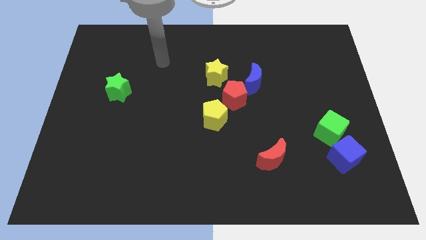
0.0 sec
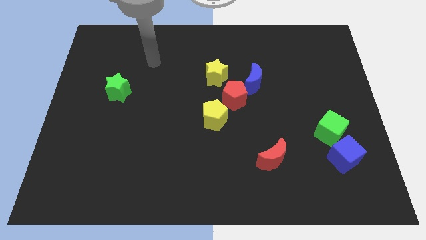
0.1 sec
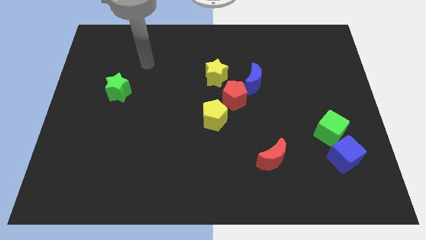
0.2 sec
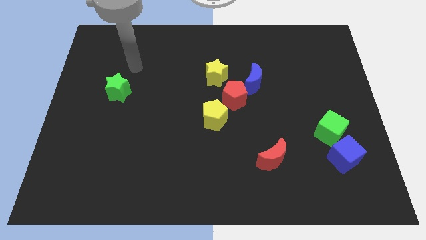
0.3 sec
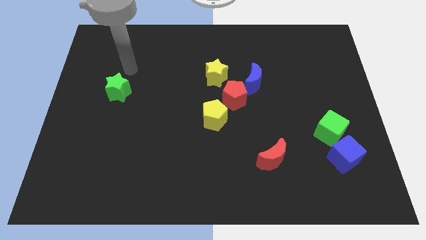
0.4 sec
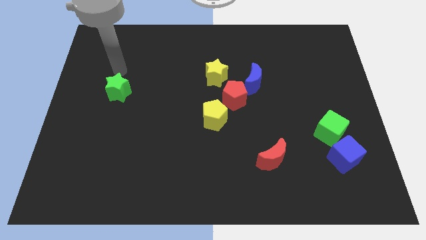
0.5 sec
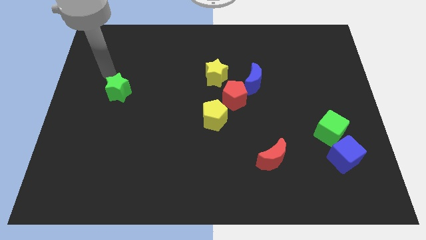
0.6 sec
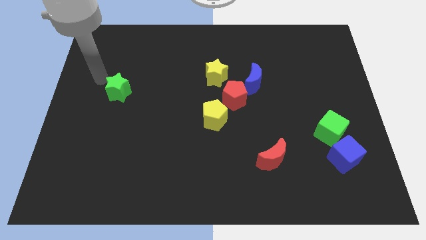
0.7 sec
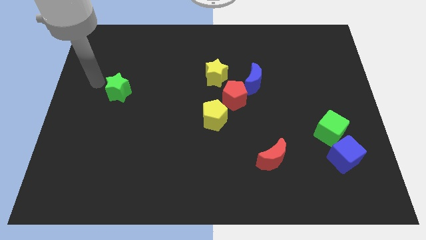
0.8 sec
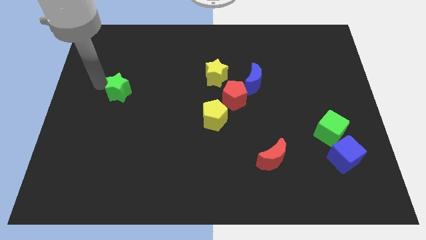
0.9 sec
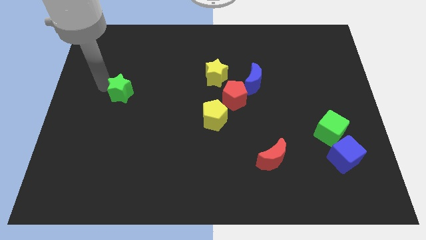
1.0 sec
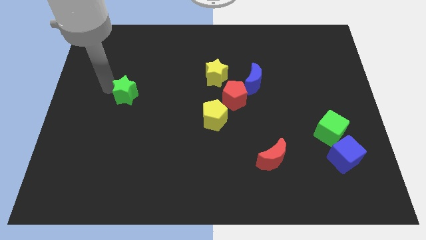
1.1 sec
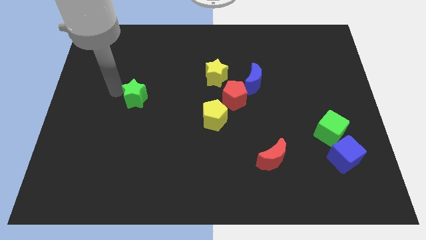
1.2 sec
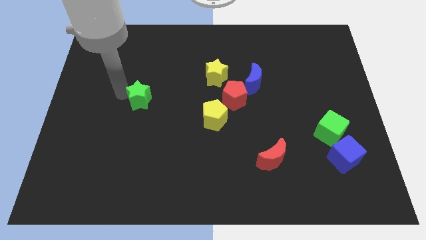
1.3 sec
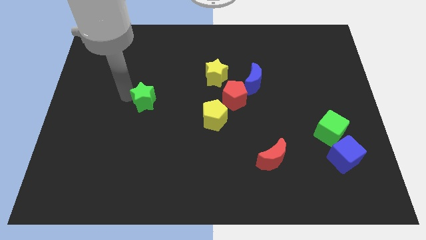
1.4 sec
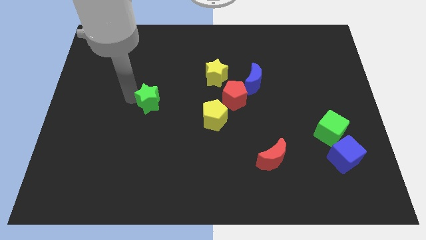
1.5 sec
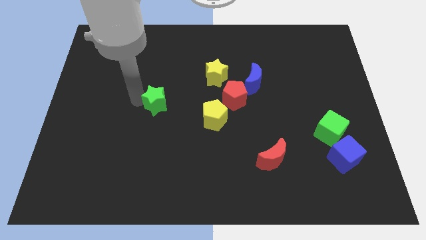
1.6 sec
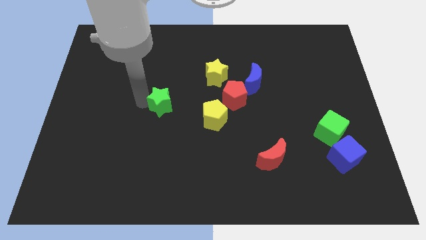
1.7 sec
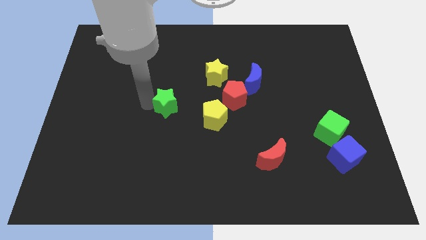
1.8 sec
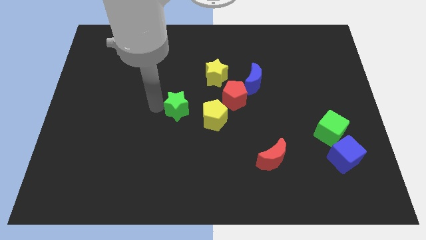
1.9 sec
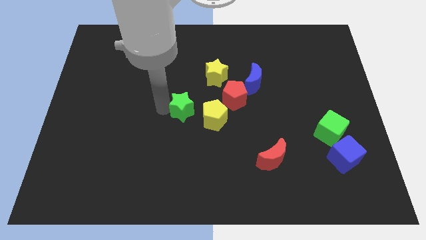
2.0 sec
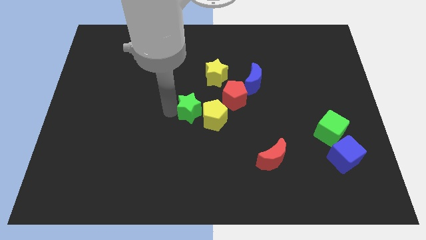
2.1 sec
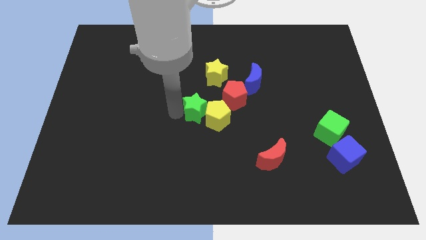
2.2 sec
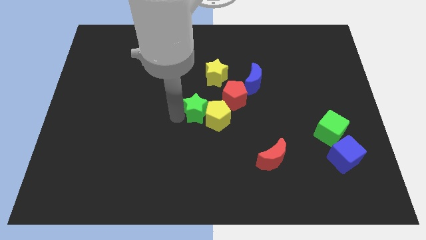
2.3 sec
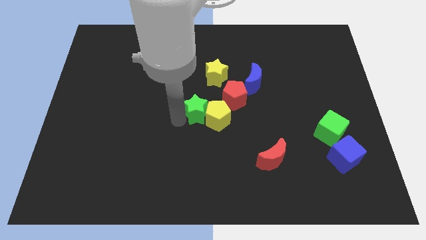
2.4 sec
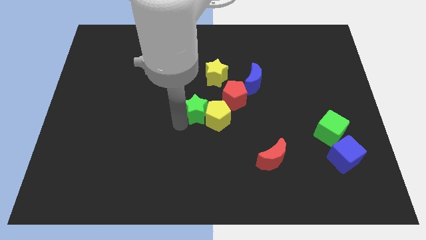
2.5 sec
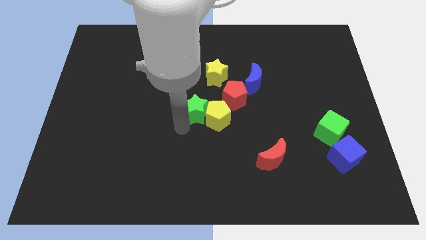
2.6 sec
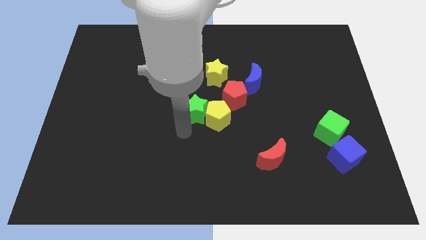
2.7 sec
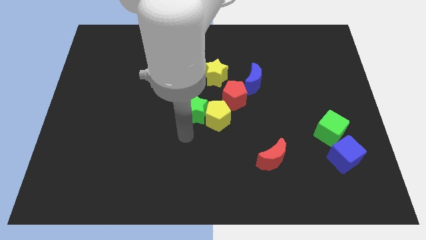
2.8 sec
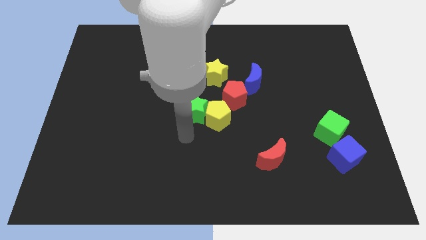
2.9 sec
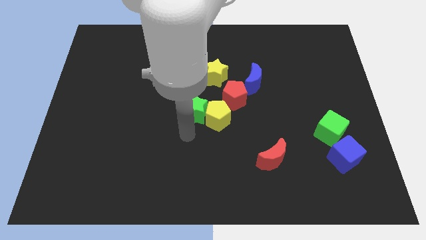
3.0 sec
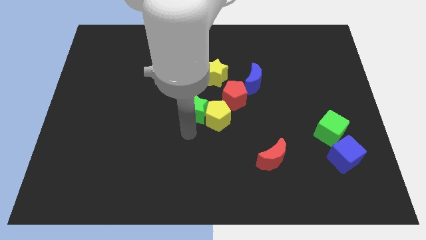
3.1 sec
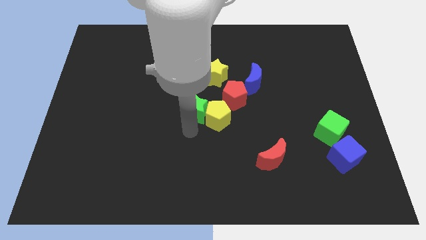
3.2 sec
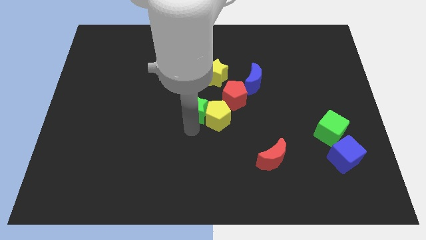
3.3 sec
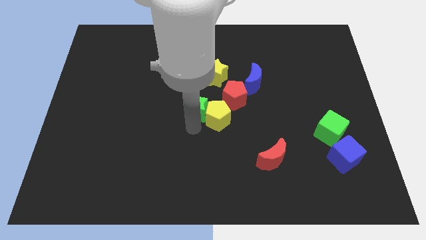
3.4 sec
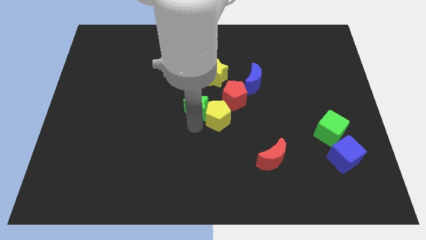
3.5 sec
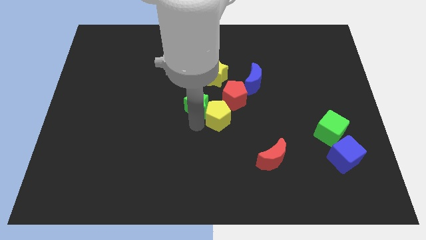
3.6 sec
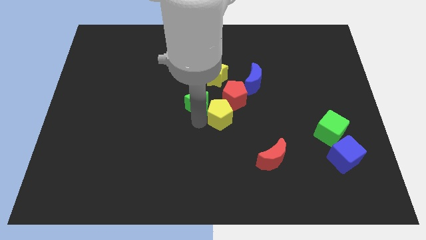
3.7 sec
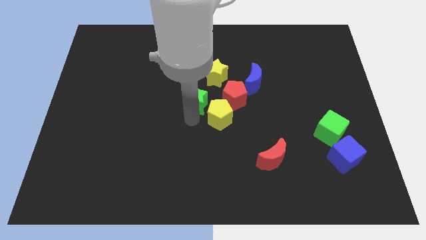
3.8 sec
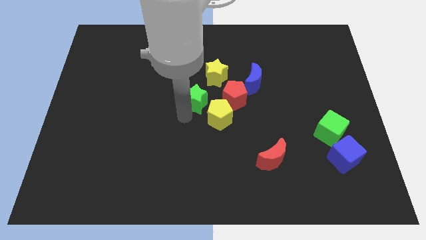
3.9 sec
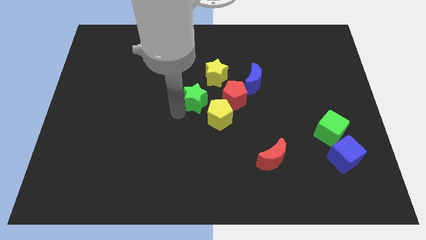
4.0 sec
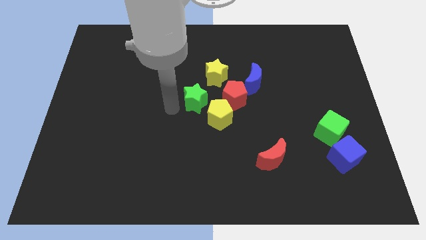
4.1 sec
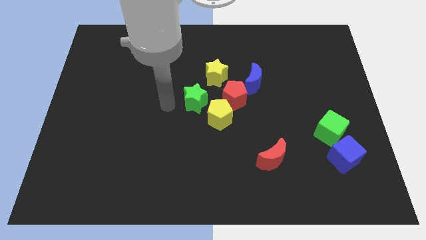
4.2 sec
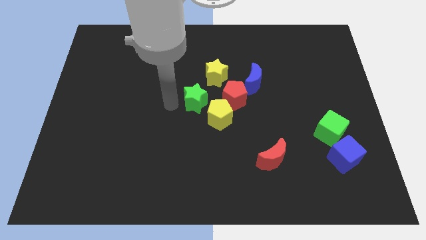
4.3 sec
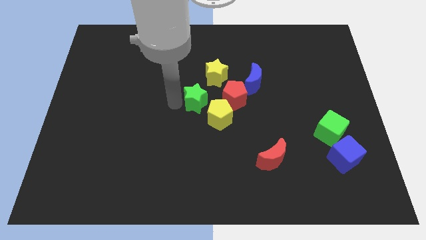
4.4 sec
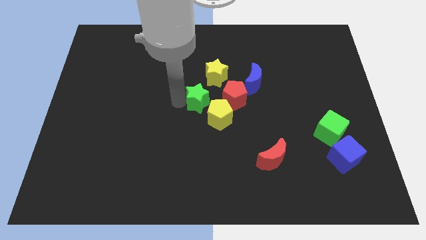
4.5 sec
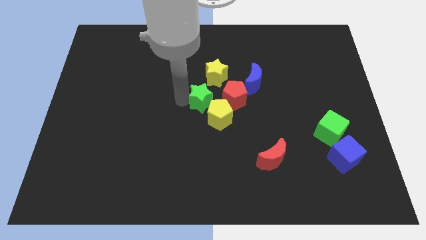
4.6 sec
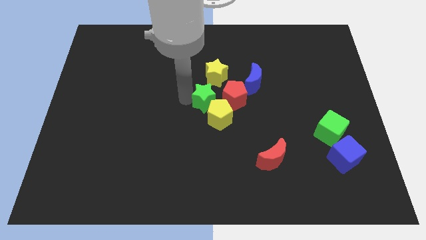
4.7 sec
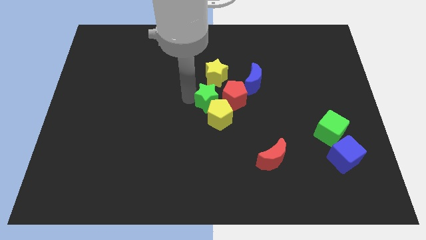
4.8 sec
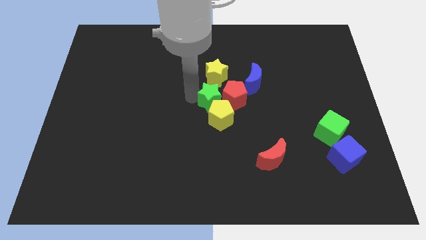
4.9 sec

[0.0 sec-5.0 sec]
put the green star next to the red pentagon

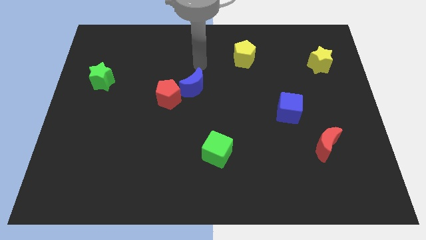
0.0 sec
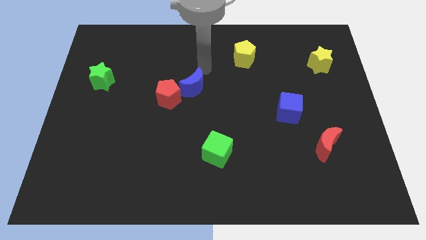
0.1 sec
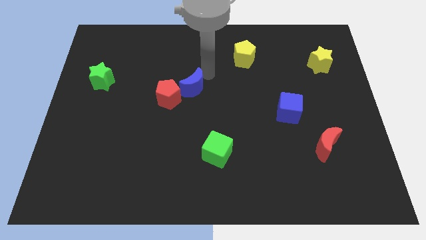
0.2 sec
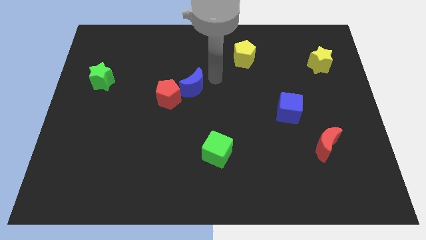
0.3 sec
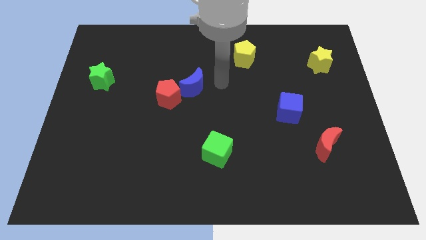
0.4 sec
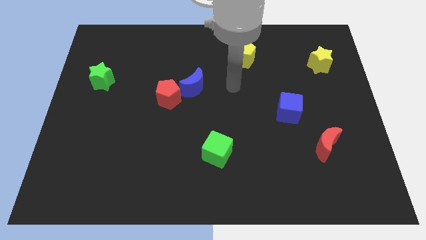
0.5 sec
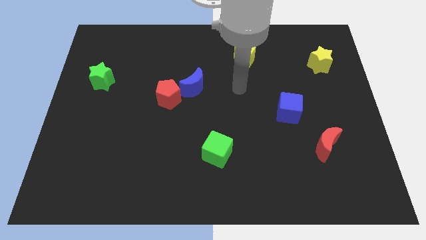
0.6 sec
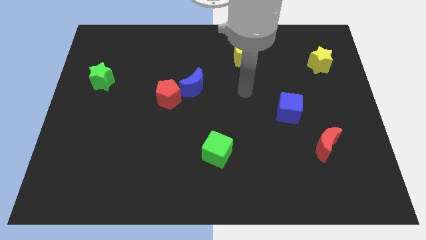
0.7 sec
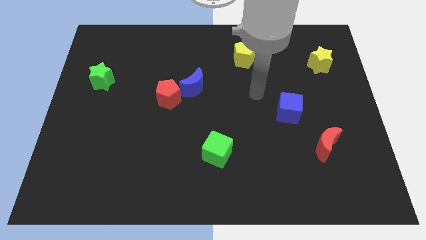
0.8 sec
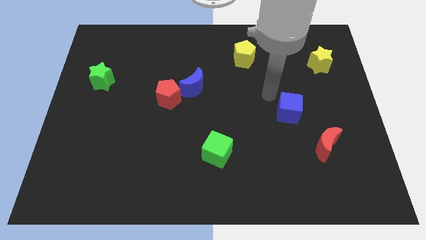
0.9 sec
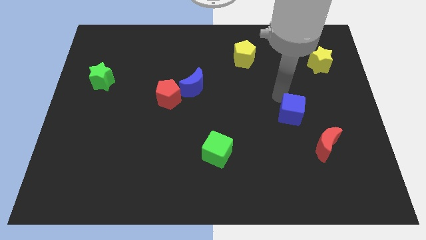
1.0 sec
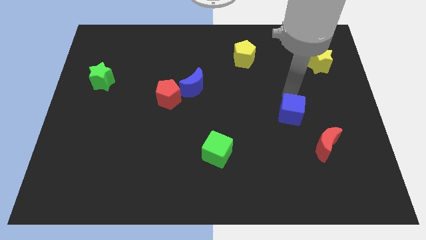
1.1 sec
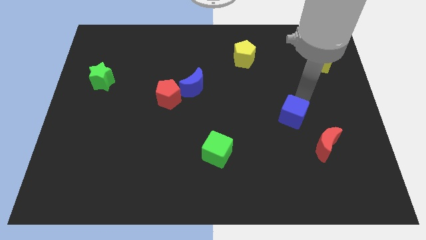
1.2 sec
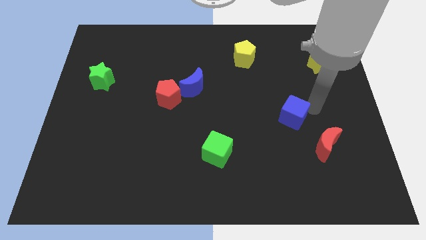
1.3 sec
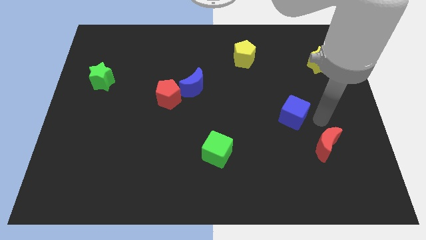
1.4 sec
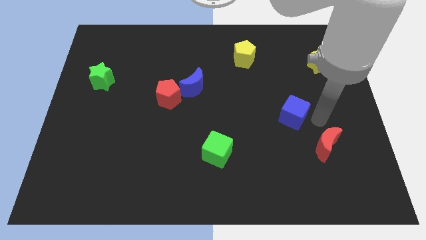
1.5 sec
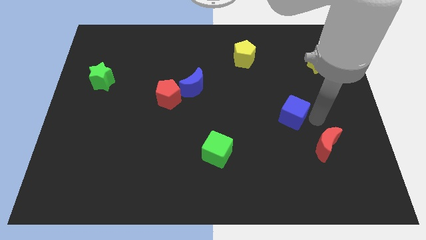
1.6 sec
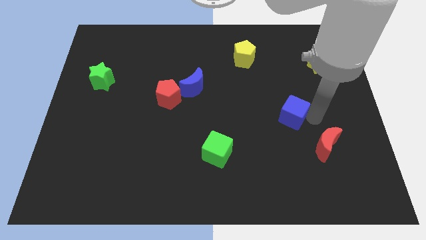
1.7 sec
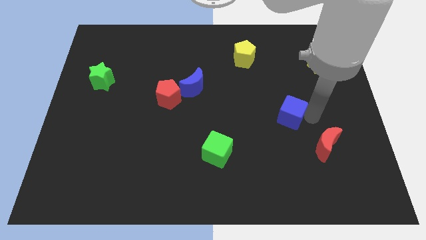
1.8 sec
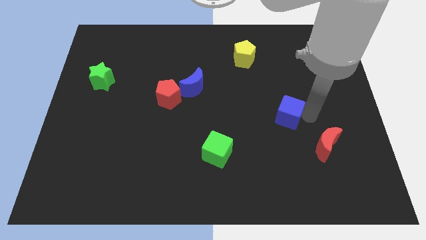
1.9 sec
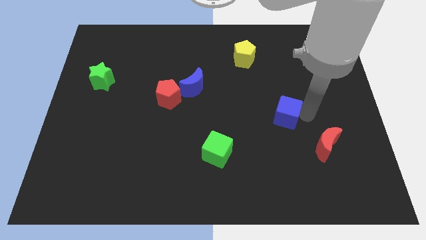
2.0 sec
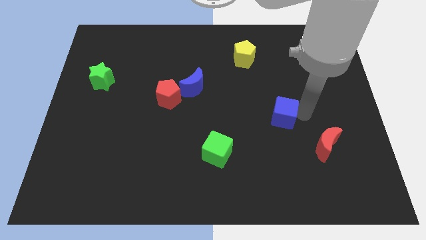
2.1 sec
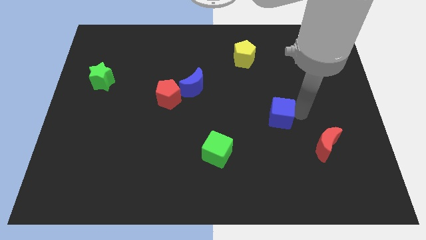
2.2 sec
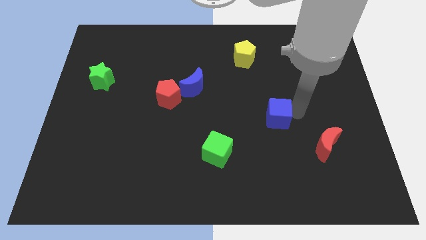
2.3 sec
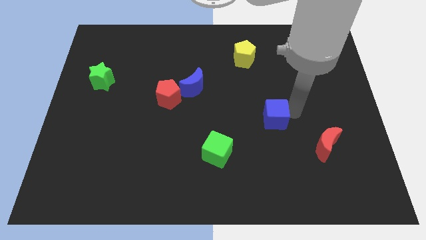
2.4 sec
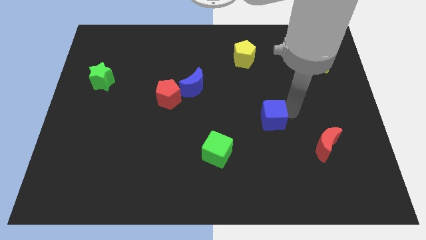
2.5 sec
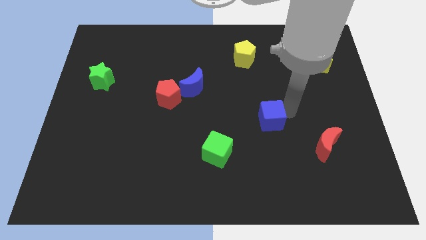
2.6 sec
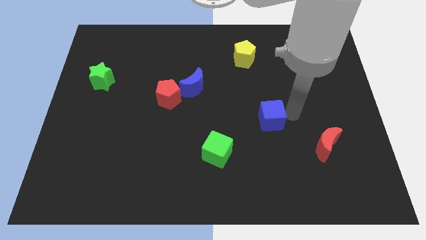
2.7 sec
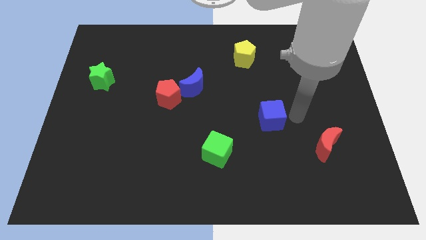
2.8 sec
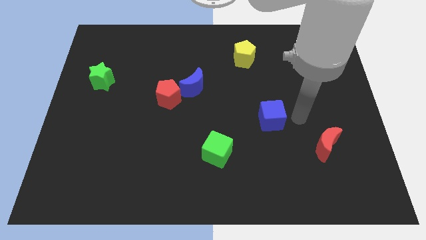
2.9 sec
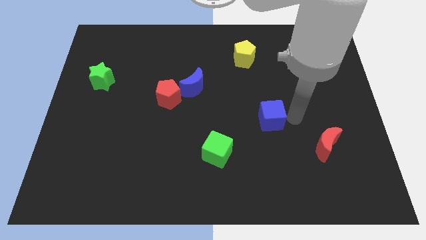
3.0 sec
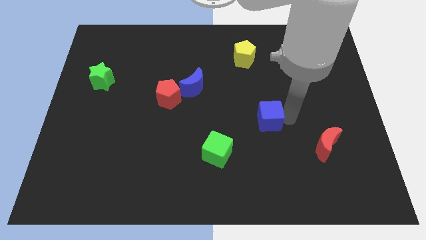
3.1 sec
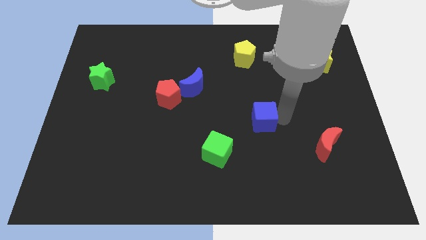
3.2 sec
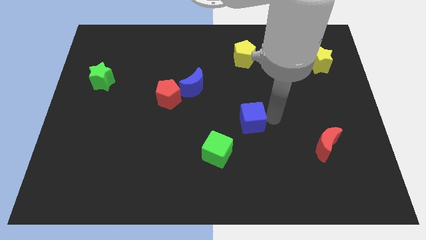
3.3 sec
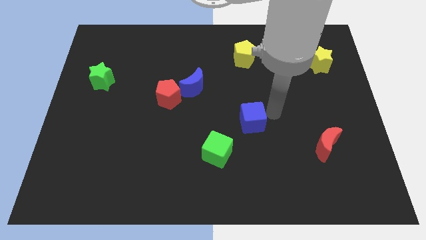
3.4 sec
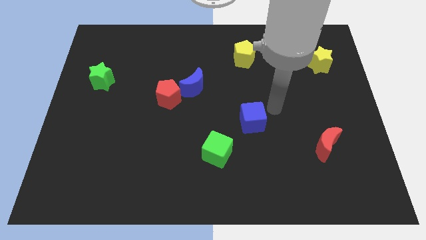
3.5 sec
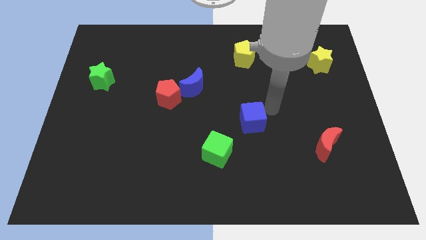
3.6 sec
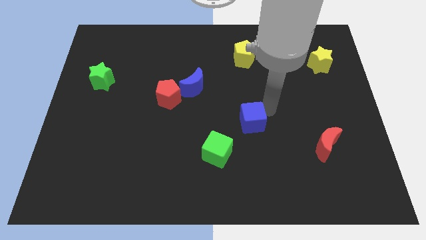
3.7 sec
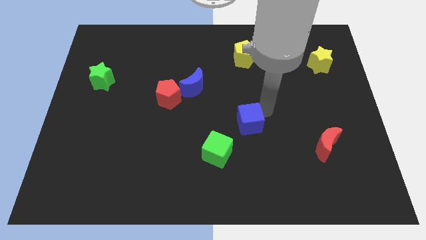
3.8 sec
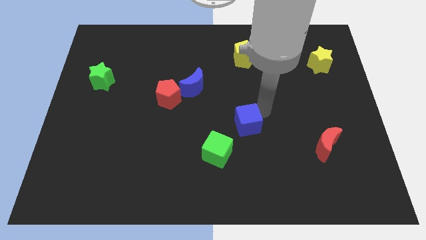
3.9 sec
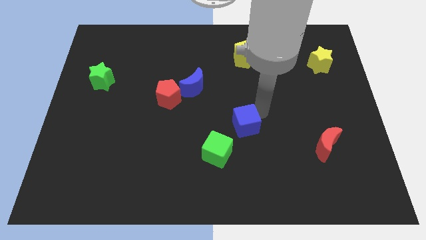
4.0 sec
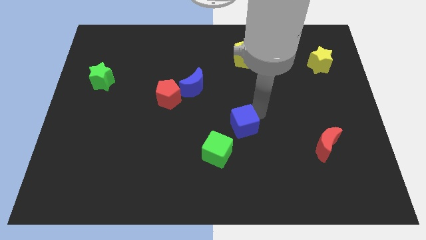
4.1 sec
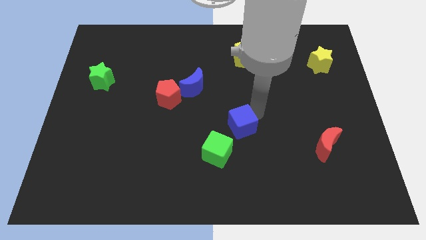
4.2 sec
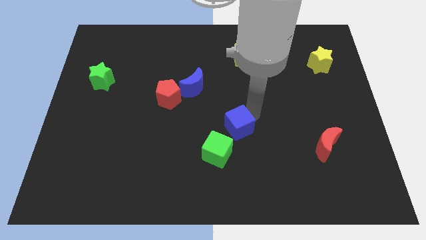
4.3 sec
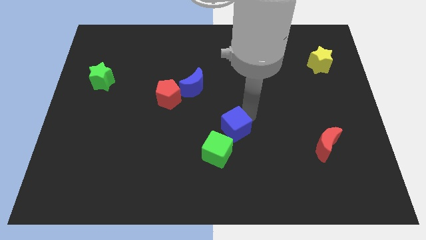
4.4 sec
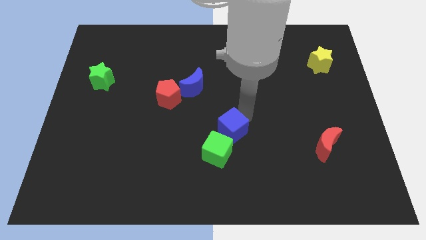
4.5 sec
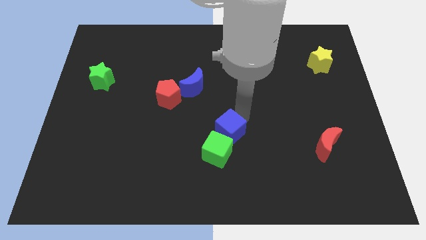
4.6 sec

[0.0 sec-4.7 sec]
put the blue cube next to the green cube
